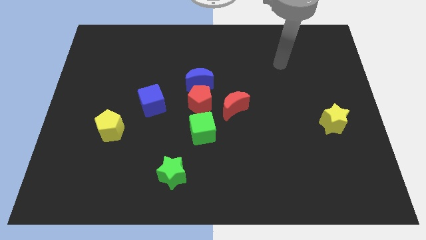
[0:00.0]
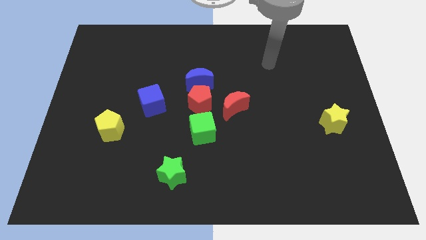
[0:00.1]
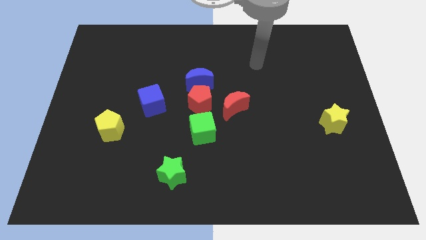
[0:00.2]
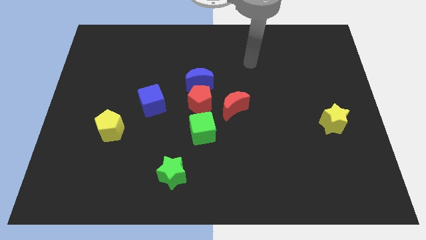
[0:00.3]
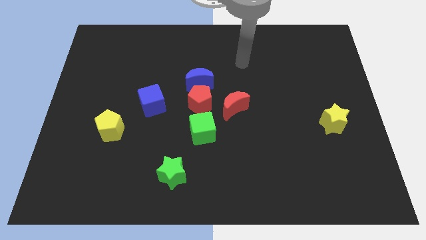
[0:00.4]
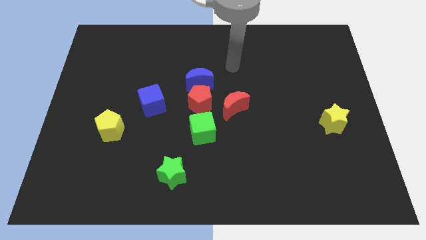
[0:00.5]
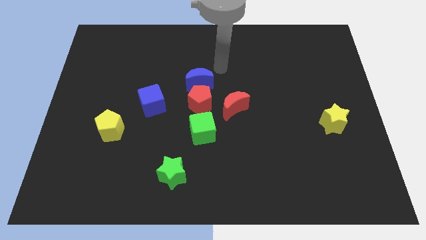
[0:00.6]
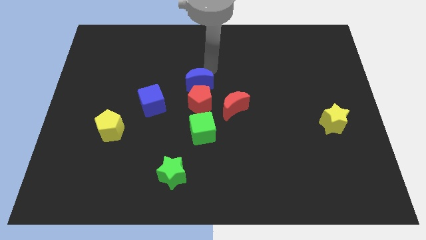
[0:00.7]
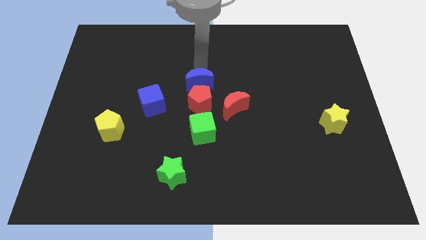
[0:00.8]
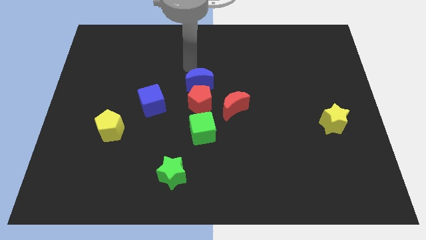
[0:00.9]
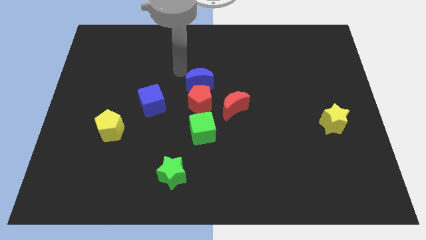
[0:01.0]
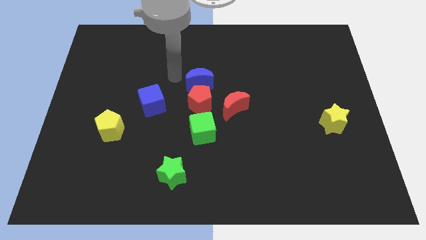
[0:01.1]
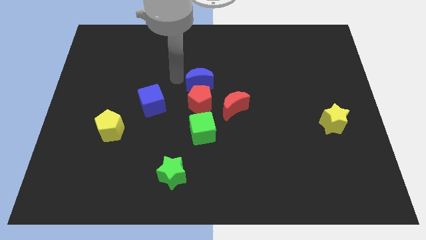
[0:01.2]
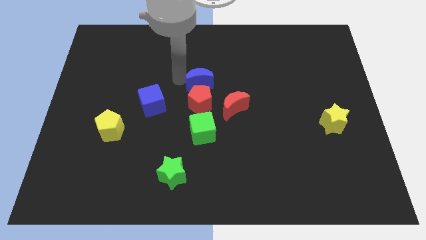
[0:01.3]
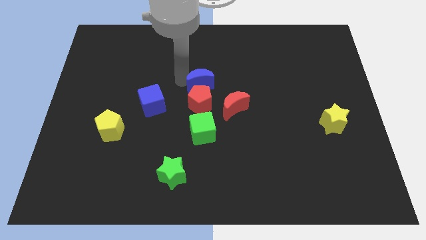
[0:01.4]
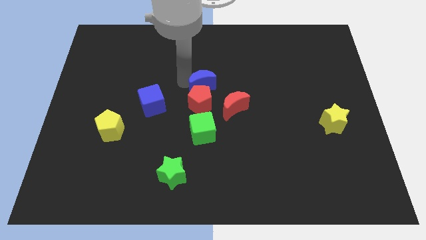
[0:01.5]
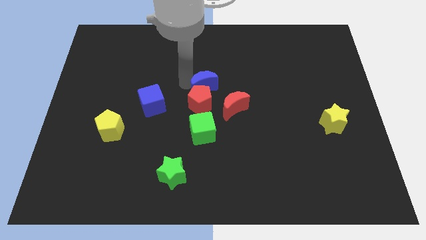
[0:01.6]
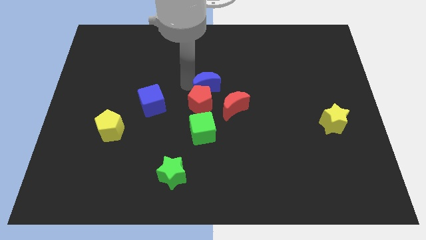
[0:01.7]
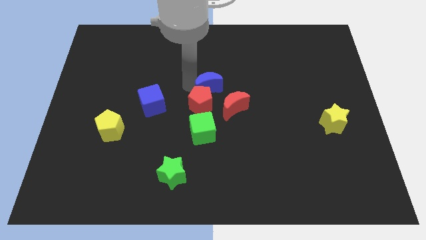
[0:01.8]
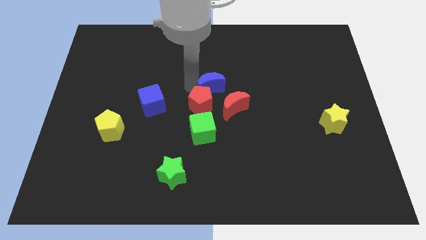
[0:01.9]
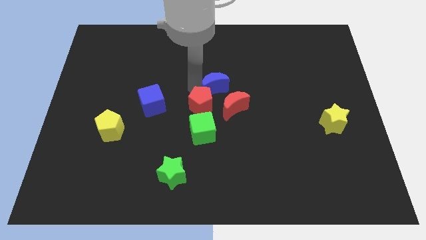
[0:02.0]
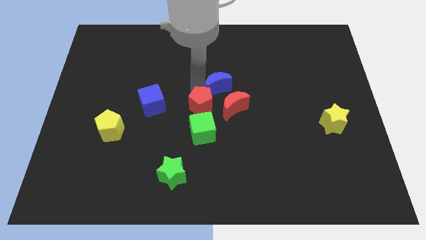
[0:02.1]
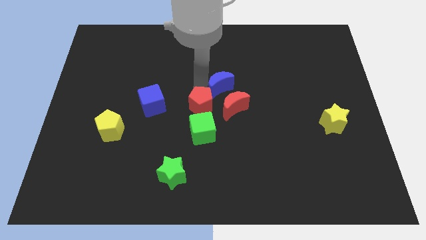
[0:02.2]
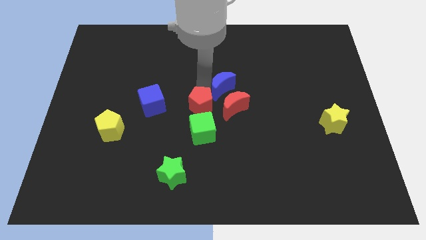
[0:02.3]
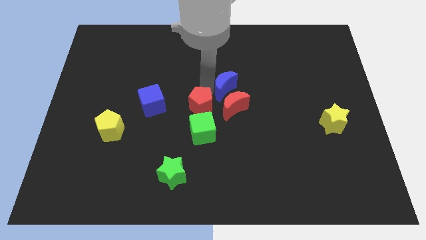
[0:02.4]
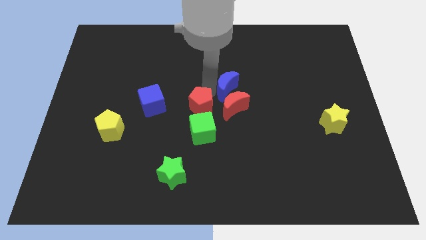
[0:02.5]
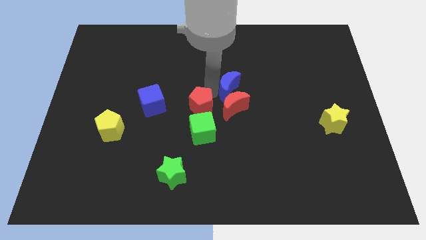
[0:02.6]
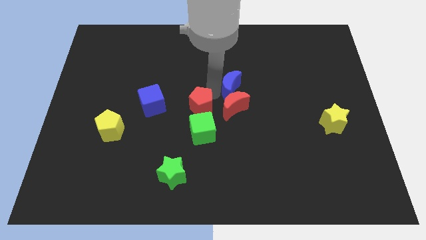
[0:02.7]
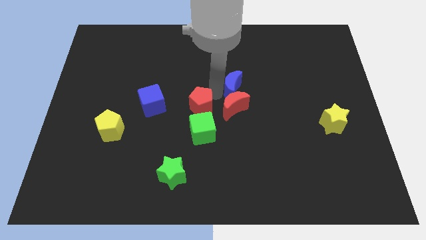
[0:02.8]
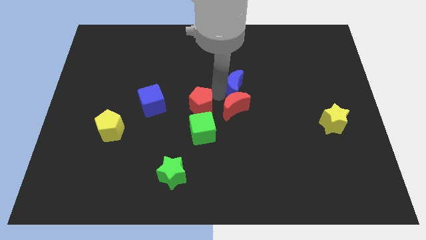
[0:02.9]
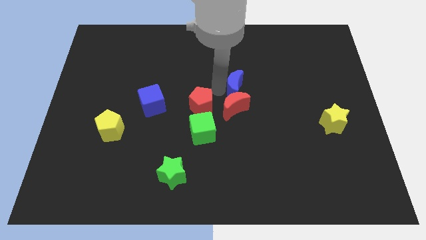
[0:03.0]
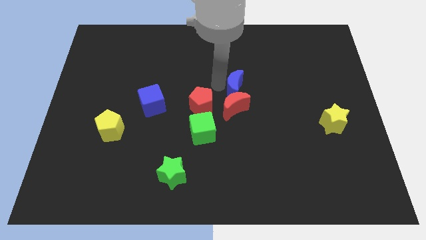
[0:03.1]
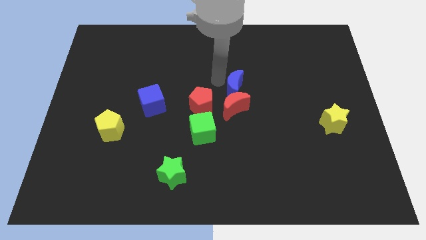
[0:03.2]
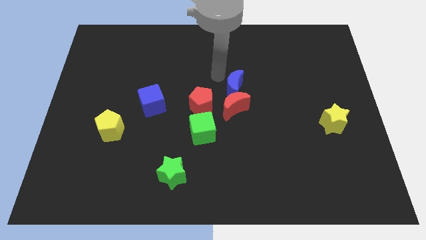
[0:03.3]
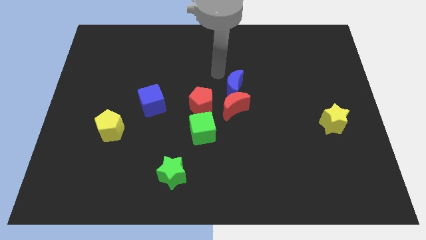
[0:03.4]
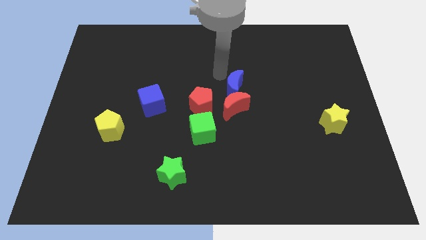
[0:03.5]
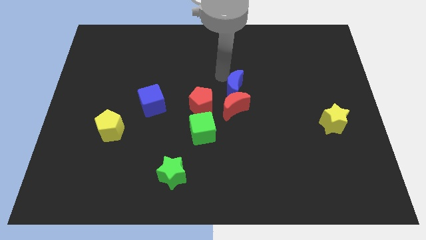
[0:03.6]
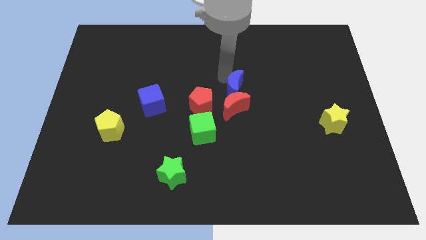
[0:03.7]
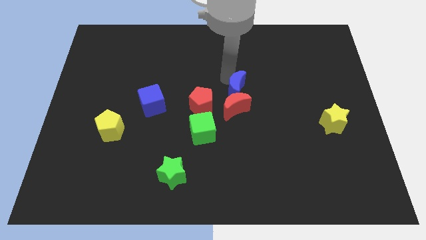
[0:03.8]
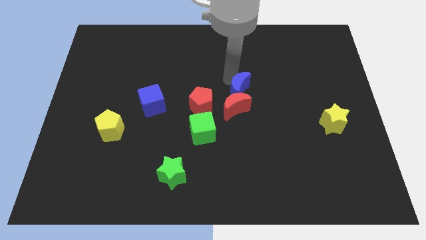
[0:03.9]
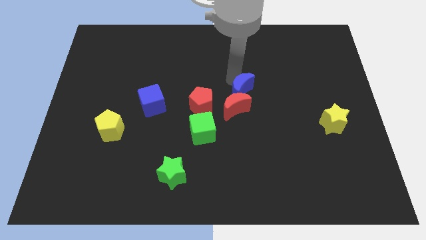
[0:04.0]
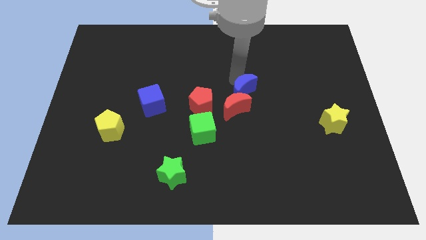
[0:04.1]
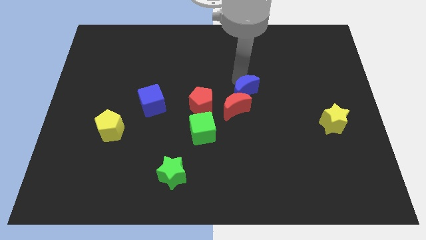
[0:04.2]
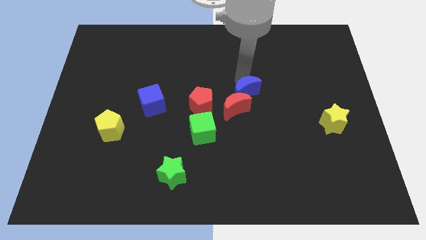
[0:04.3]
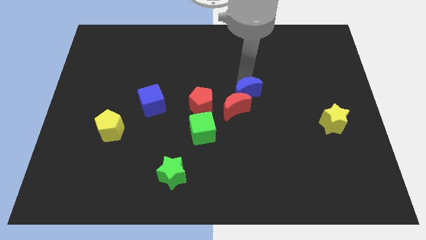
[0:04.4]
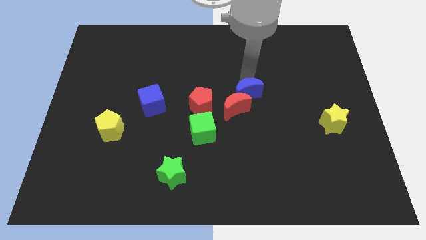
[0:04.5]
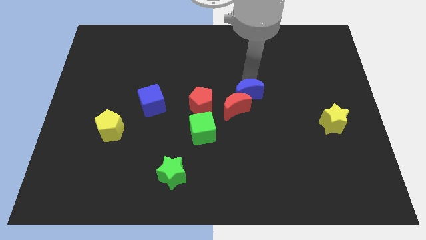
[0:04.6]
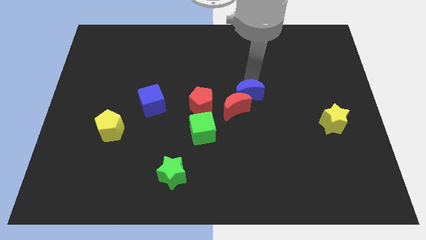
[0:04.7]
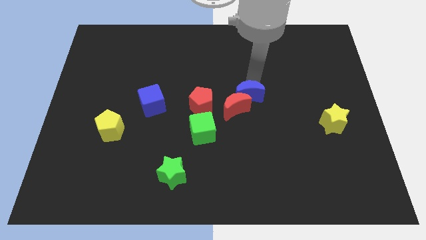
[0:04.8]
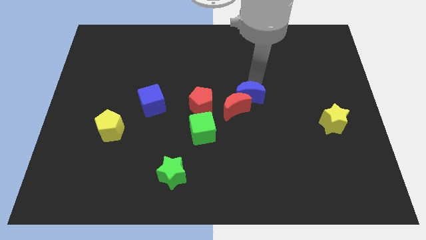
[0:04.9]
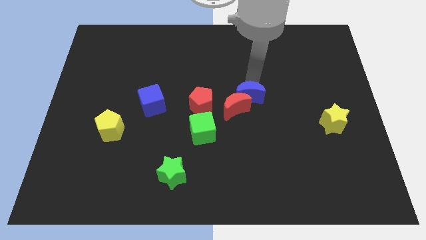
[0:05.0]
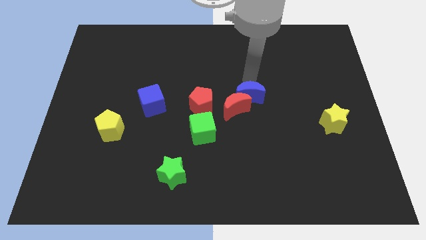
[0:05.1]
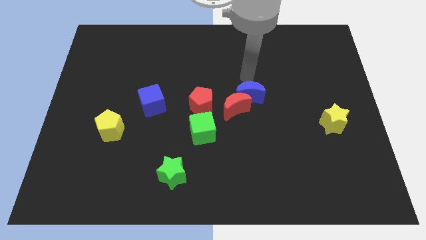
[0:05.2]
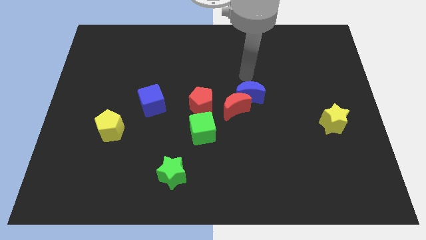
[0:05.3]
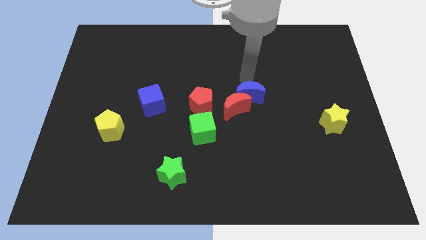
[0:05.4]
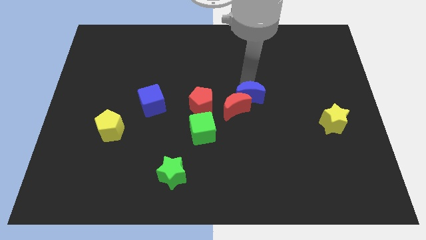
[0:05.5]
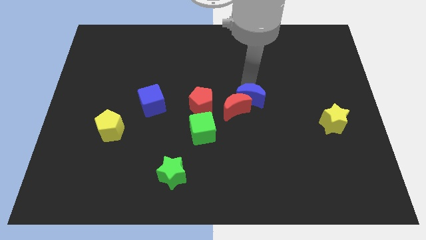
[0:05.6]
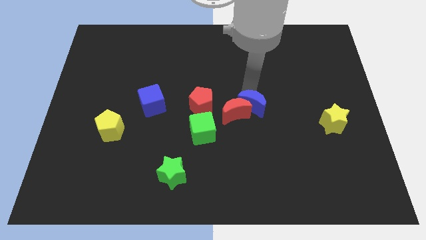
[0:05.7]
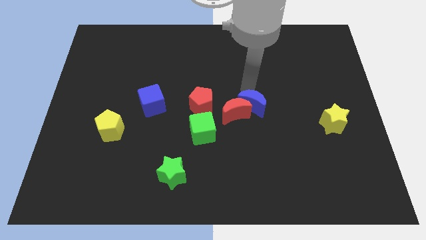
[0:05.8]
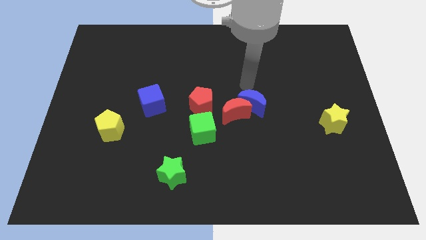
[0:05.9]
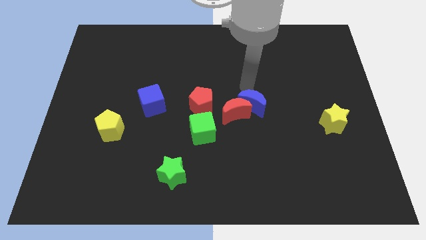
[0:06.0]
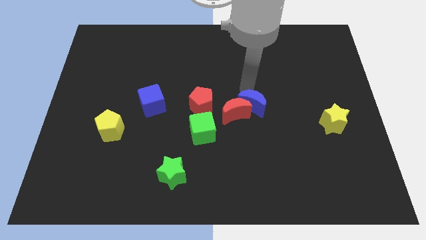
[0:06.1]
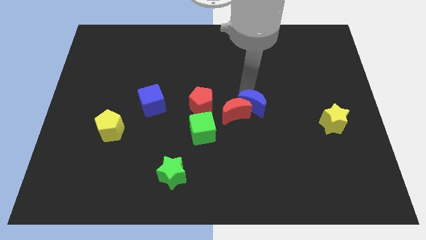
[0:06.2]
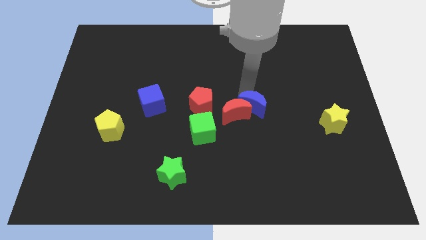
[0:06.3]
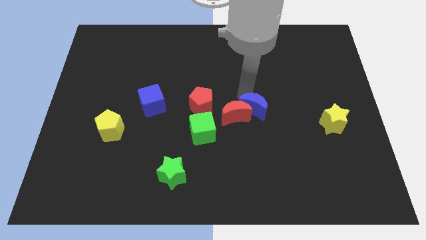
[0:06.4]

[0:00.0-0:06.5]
put the blue moon to the bottom right of the red moon
